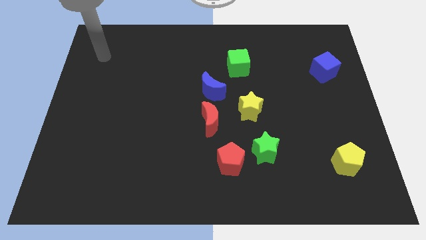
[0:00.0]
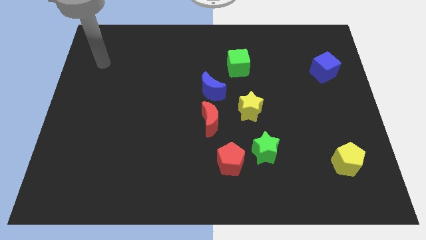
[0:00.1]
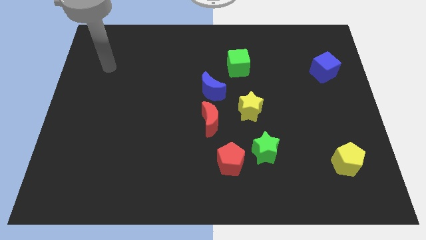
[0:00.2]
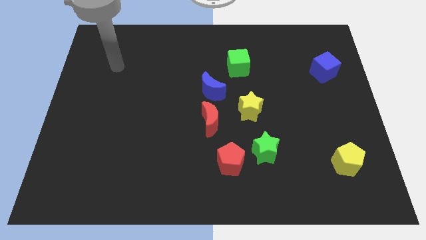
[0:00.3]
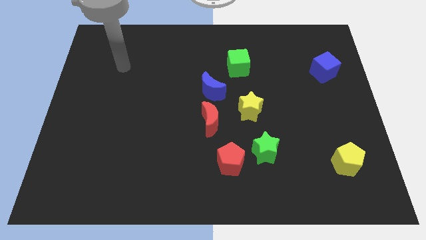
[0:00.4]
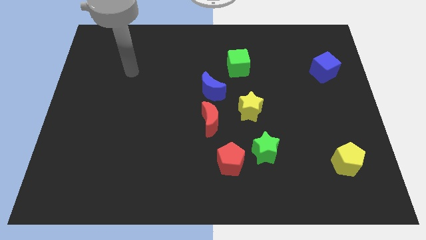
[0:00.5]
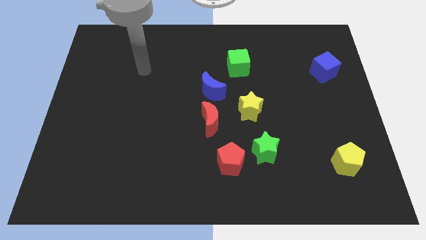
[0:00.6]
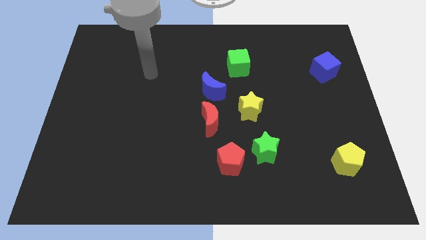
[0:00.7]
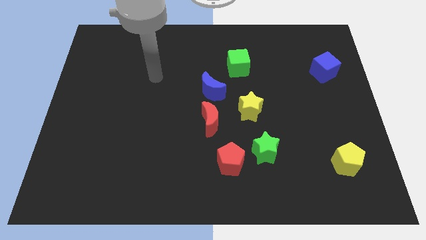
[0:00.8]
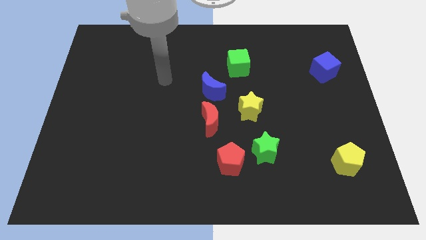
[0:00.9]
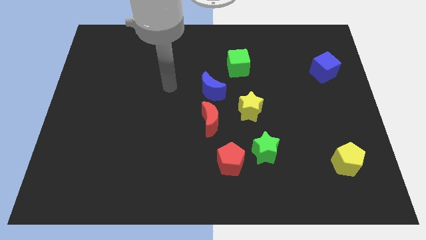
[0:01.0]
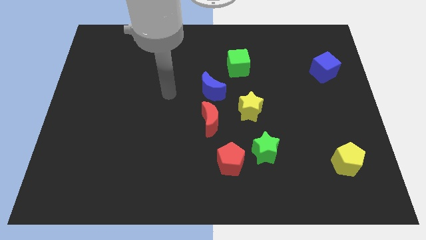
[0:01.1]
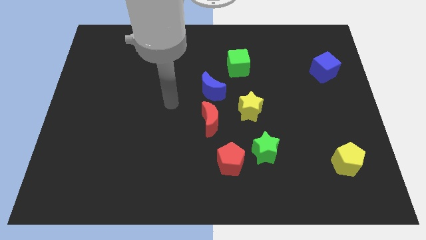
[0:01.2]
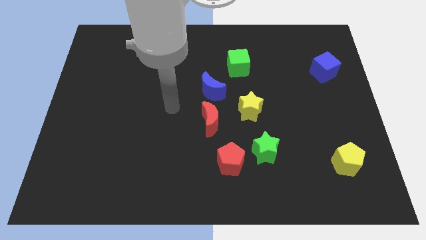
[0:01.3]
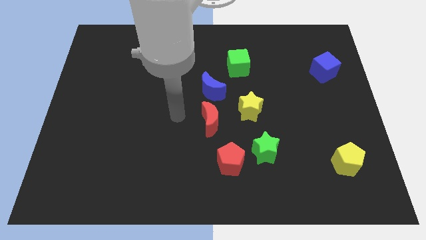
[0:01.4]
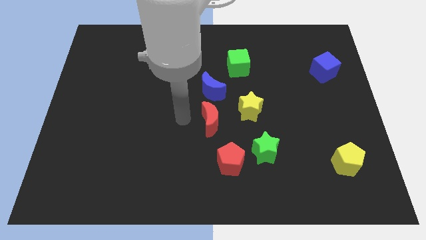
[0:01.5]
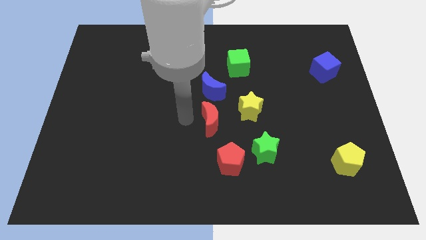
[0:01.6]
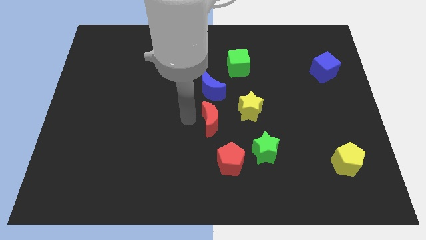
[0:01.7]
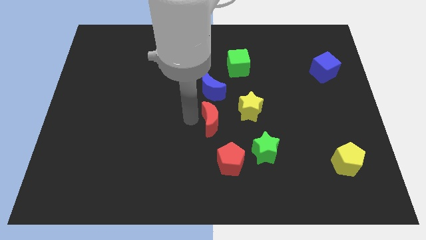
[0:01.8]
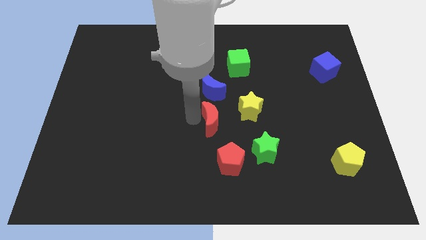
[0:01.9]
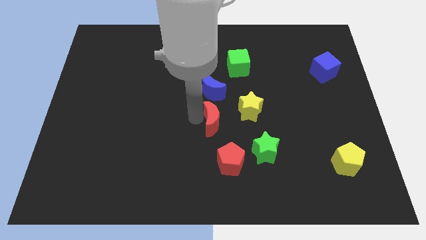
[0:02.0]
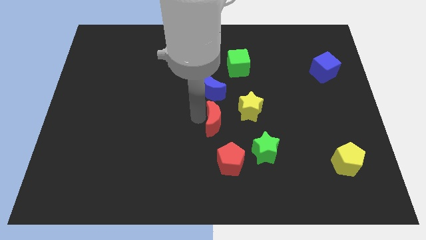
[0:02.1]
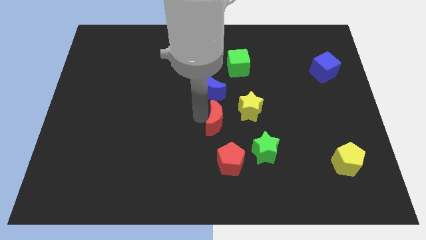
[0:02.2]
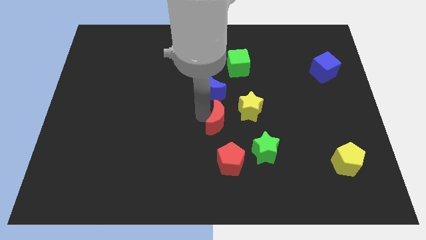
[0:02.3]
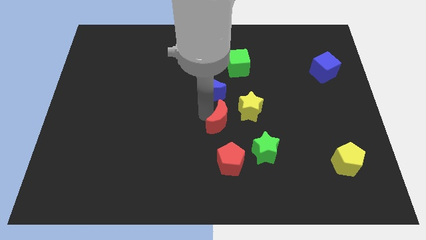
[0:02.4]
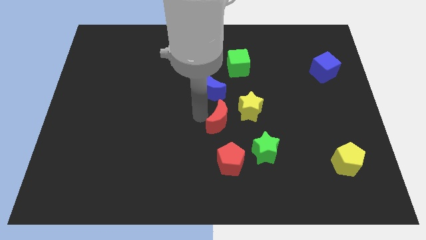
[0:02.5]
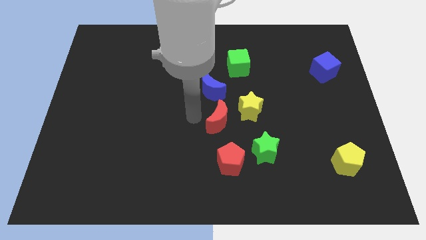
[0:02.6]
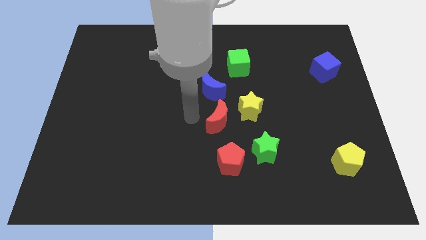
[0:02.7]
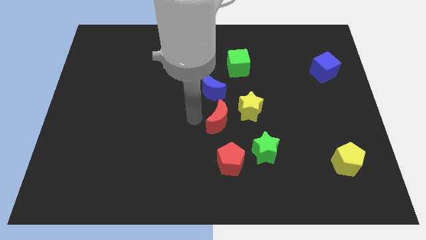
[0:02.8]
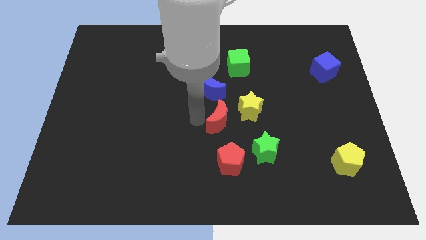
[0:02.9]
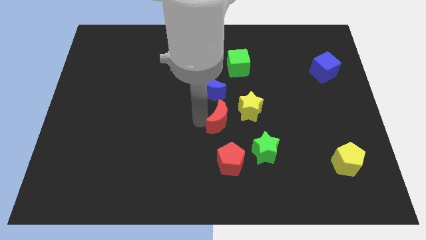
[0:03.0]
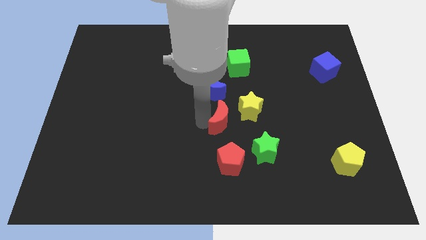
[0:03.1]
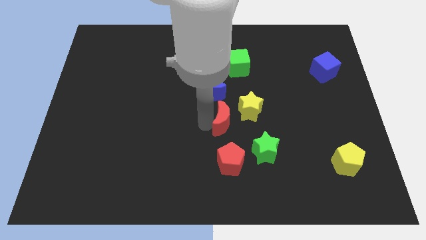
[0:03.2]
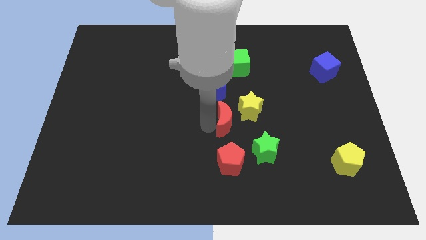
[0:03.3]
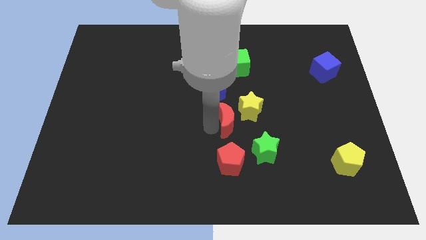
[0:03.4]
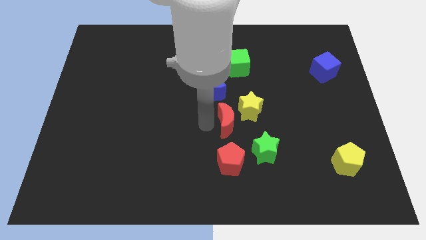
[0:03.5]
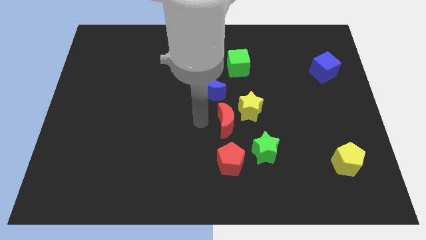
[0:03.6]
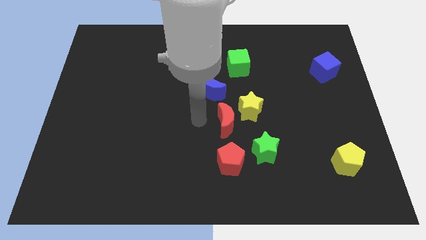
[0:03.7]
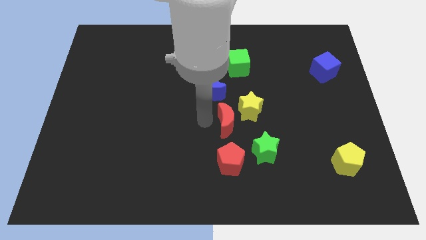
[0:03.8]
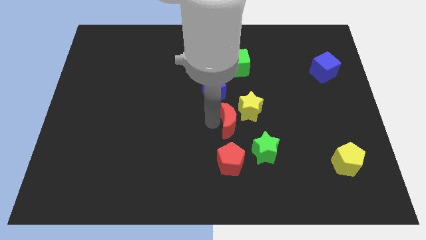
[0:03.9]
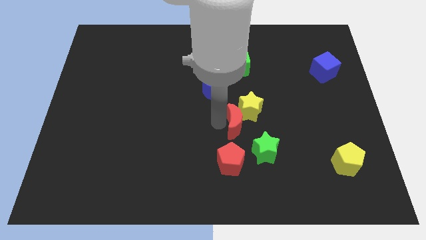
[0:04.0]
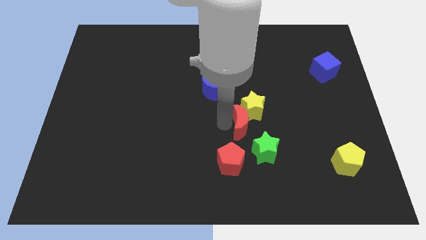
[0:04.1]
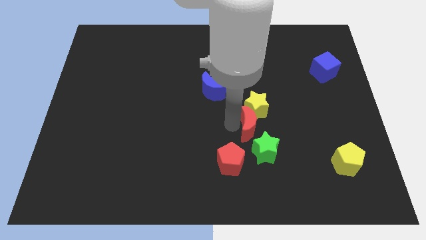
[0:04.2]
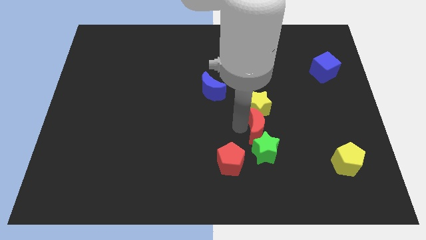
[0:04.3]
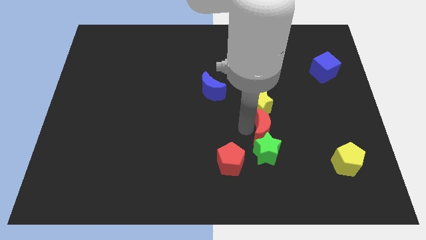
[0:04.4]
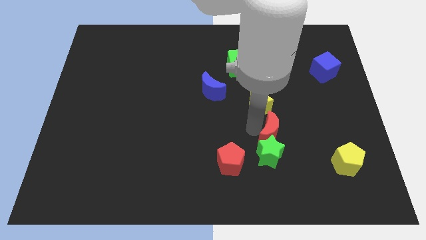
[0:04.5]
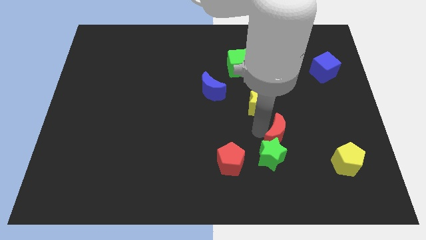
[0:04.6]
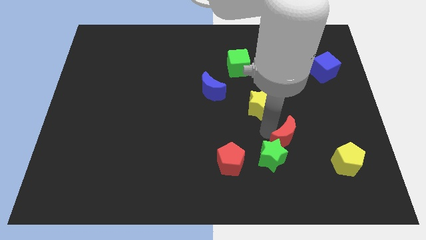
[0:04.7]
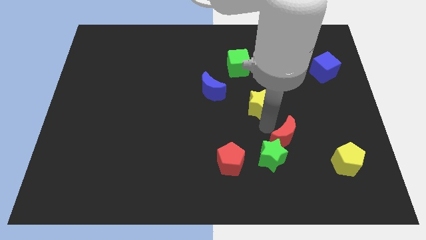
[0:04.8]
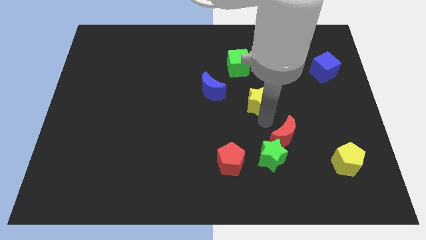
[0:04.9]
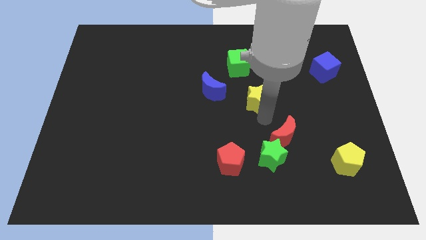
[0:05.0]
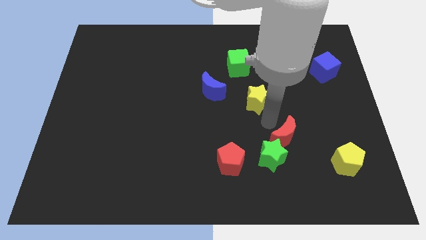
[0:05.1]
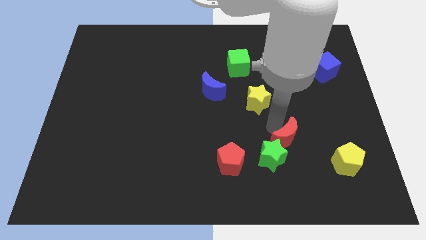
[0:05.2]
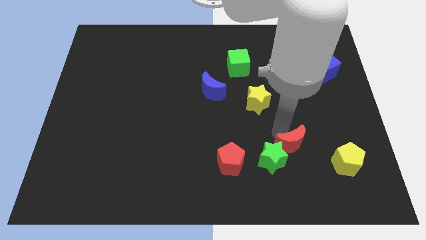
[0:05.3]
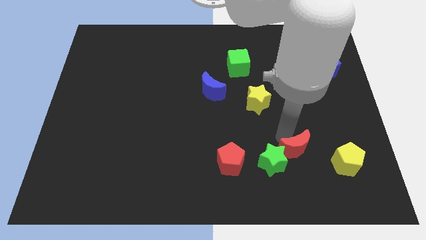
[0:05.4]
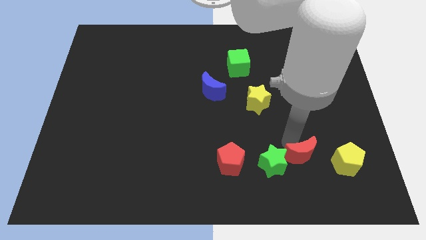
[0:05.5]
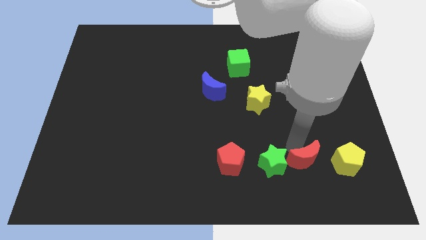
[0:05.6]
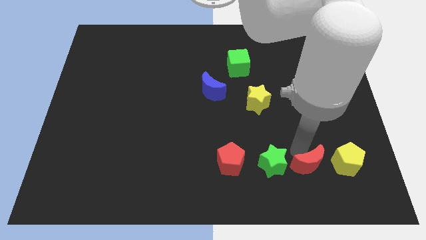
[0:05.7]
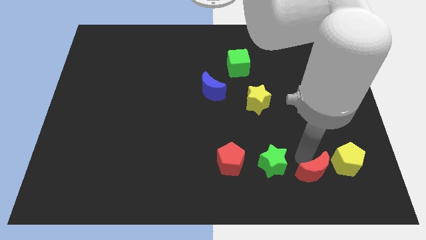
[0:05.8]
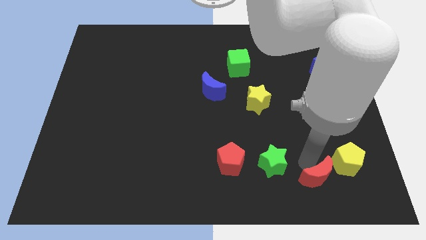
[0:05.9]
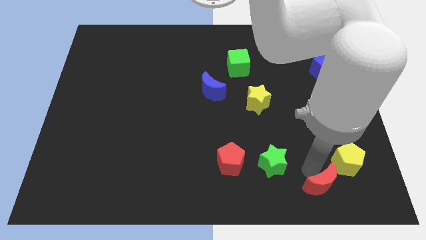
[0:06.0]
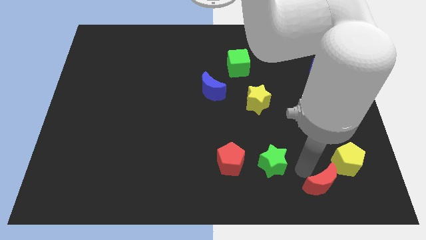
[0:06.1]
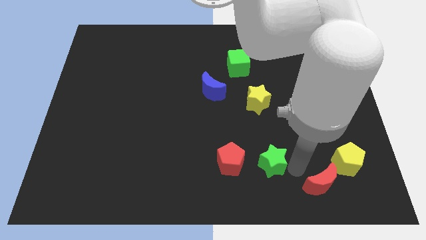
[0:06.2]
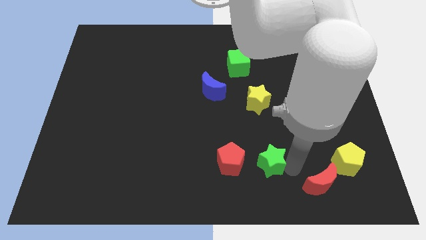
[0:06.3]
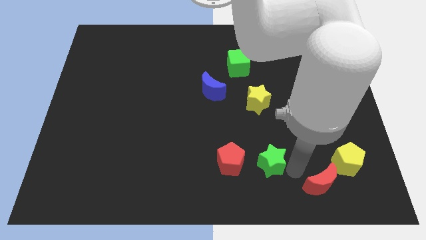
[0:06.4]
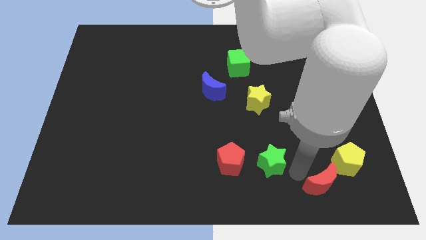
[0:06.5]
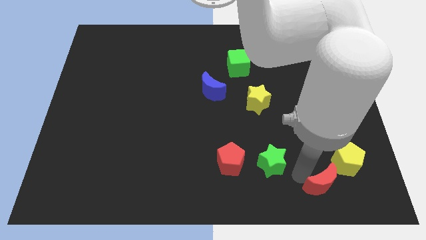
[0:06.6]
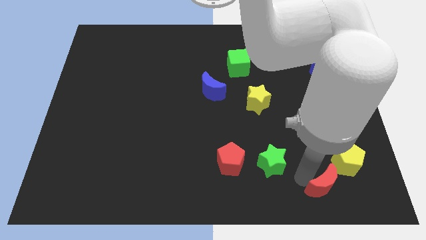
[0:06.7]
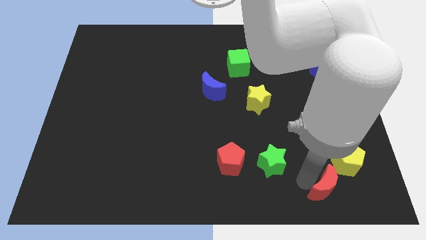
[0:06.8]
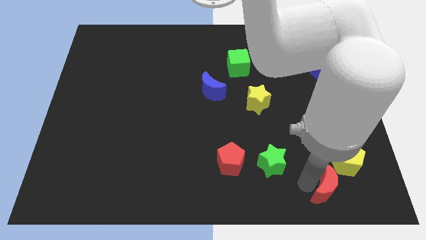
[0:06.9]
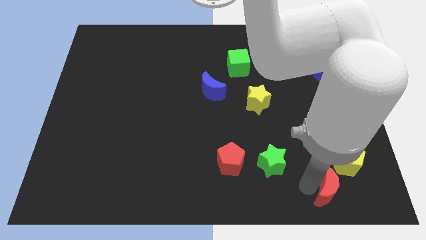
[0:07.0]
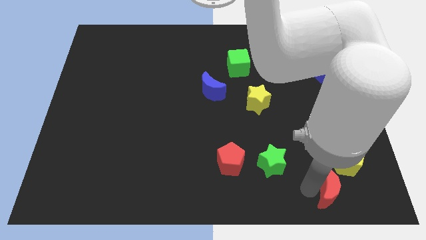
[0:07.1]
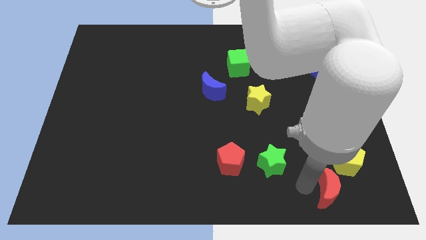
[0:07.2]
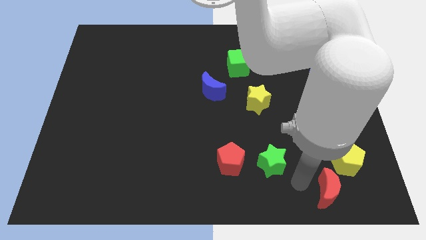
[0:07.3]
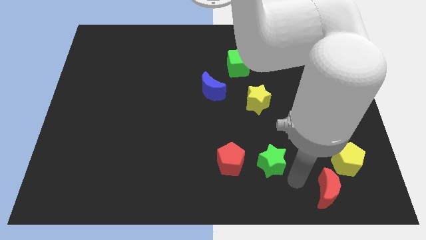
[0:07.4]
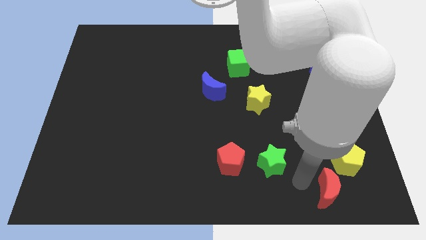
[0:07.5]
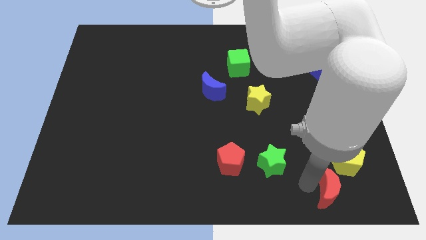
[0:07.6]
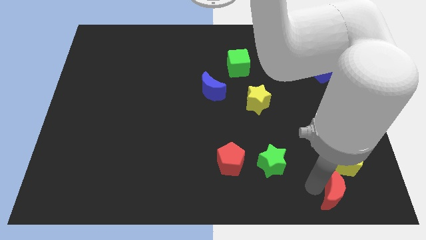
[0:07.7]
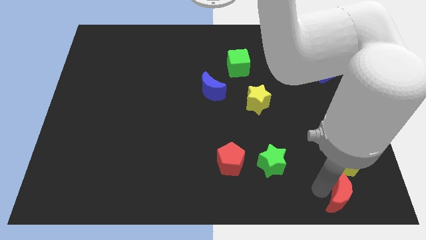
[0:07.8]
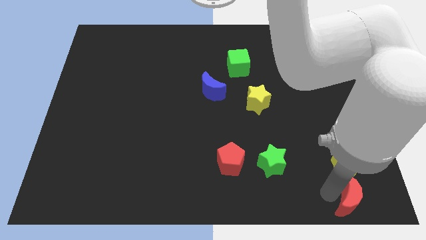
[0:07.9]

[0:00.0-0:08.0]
move the red moon to the bottom right of the board
